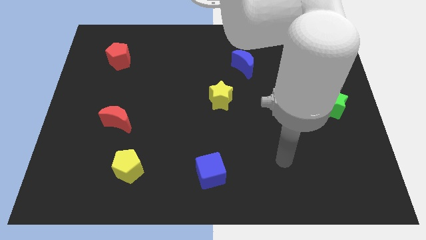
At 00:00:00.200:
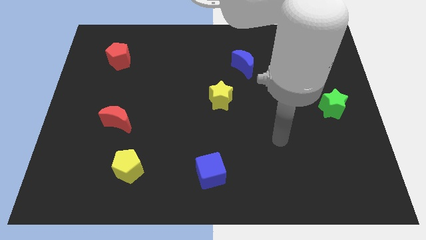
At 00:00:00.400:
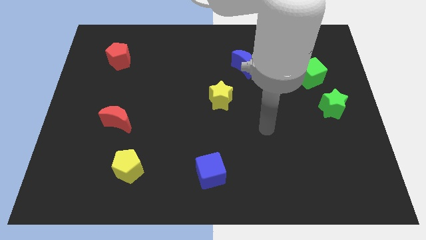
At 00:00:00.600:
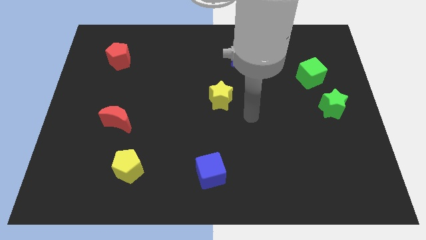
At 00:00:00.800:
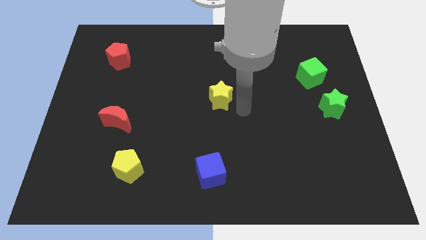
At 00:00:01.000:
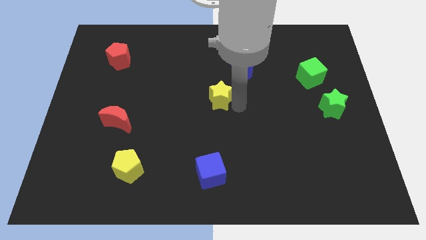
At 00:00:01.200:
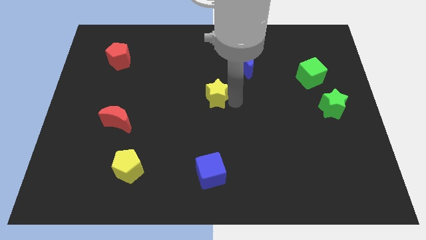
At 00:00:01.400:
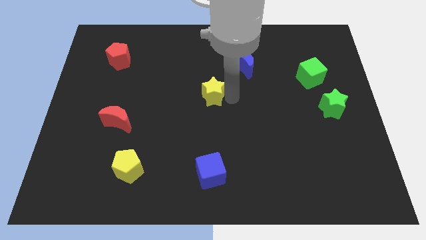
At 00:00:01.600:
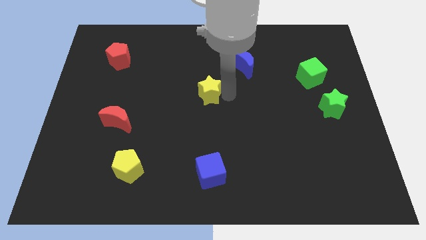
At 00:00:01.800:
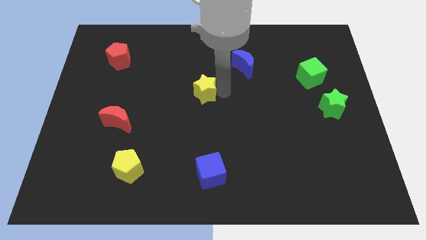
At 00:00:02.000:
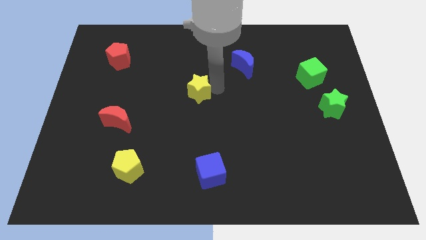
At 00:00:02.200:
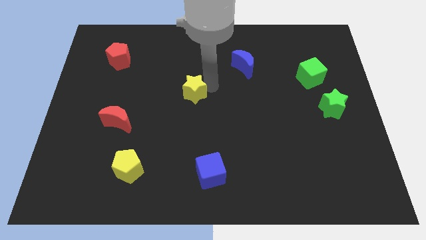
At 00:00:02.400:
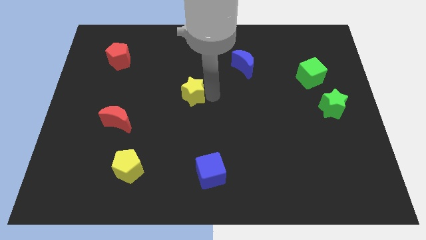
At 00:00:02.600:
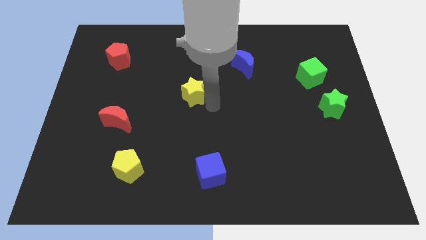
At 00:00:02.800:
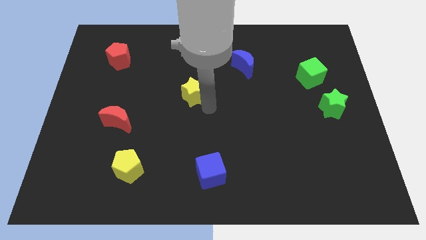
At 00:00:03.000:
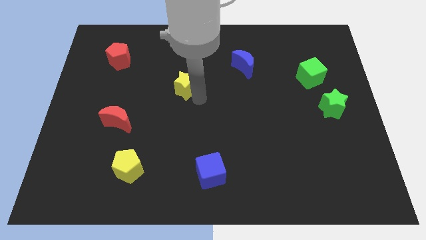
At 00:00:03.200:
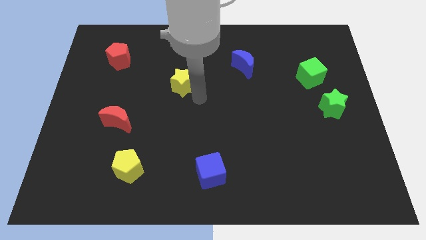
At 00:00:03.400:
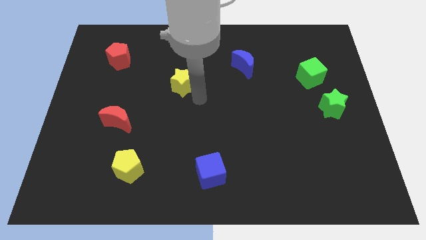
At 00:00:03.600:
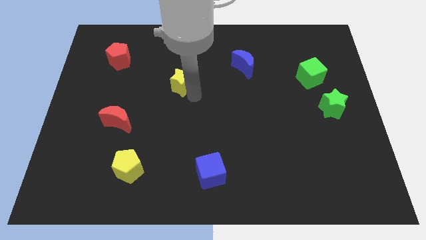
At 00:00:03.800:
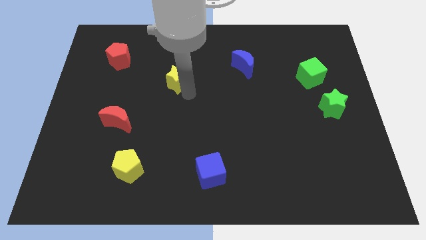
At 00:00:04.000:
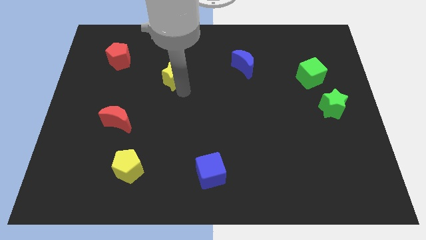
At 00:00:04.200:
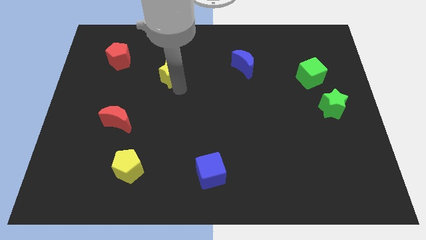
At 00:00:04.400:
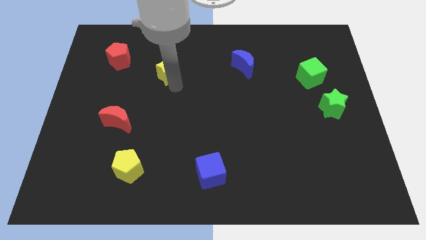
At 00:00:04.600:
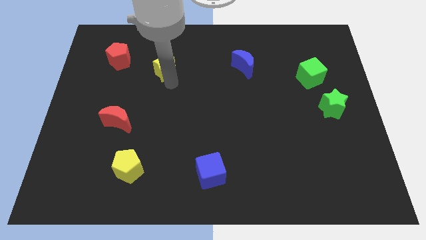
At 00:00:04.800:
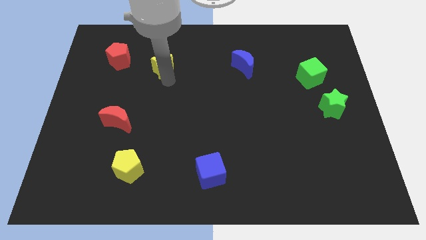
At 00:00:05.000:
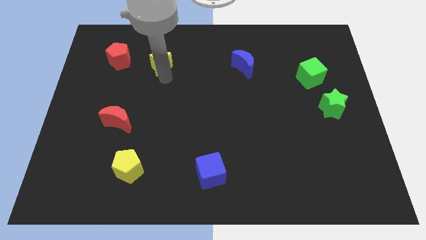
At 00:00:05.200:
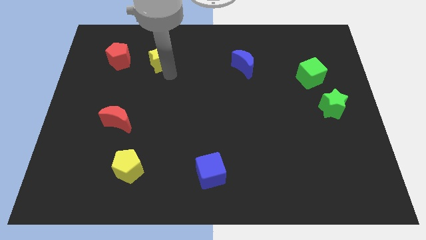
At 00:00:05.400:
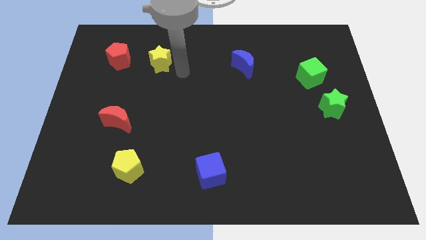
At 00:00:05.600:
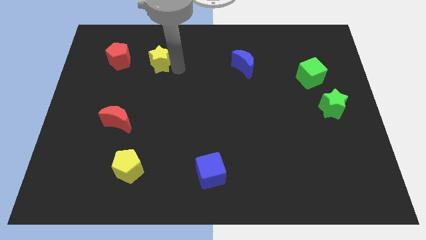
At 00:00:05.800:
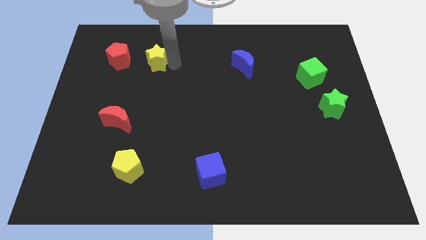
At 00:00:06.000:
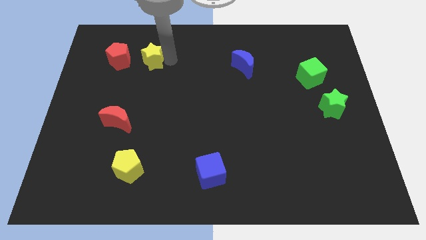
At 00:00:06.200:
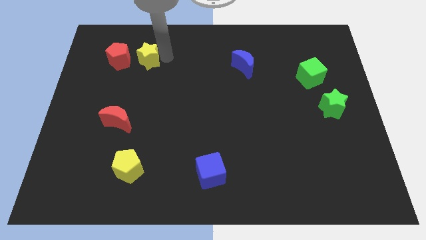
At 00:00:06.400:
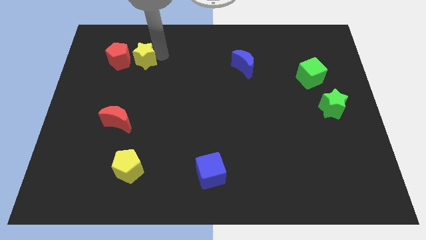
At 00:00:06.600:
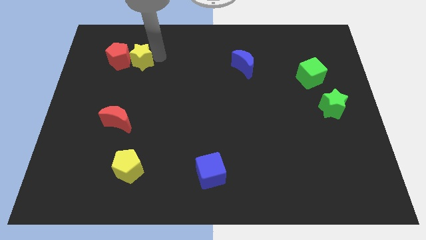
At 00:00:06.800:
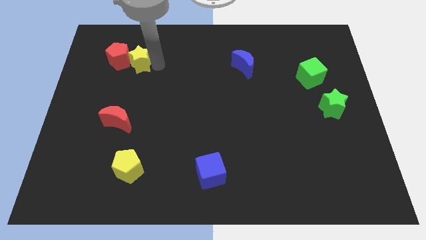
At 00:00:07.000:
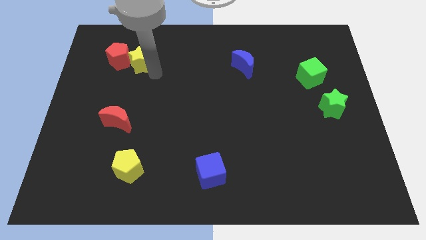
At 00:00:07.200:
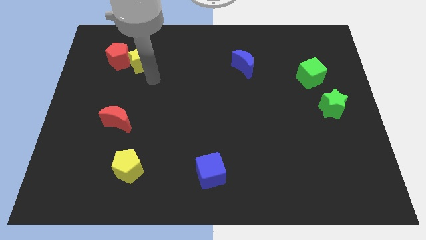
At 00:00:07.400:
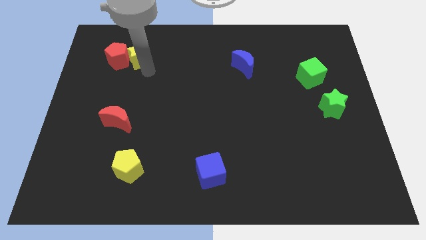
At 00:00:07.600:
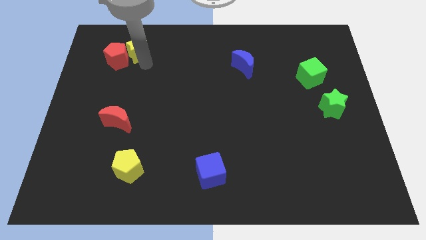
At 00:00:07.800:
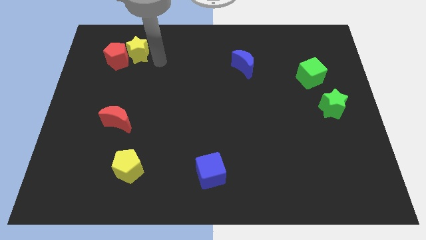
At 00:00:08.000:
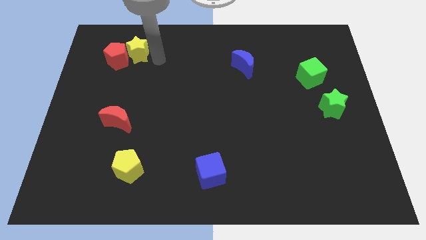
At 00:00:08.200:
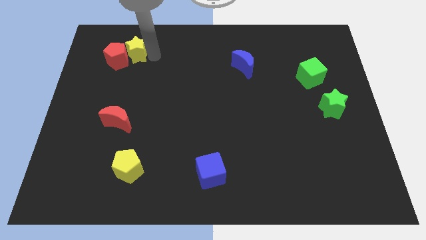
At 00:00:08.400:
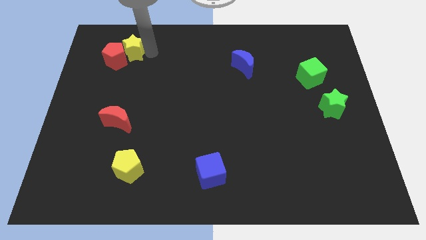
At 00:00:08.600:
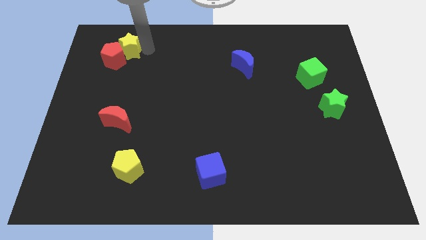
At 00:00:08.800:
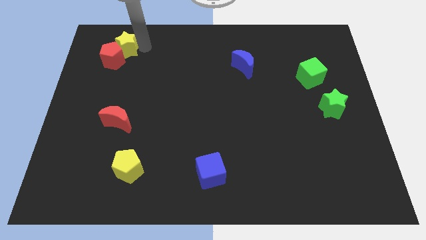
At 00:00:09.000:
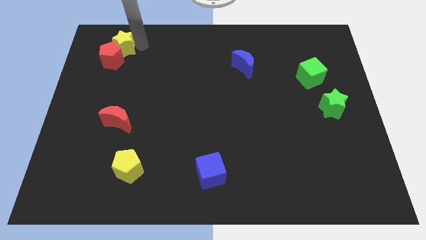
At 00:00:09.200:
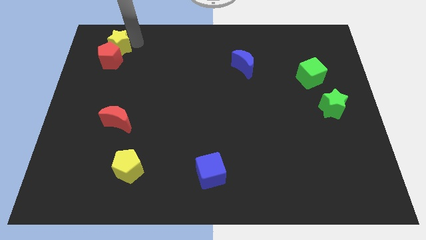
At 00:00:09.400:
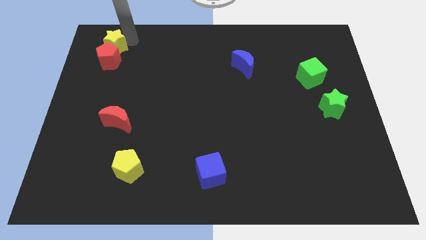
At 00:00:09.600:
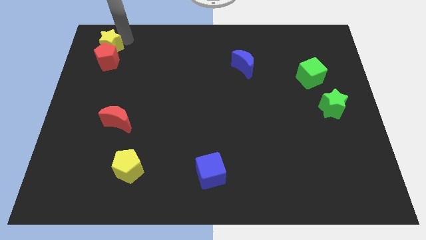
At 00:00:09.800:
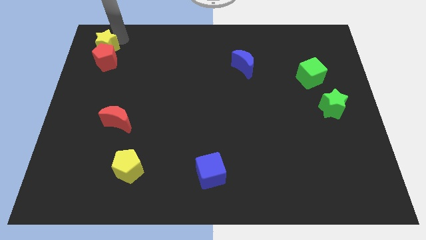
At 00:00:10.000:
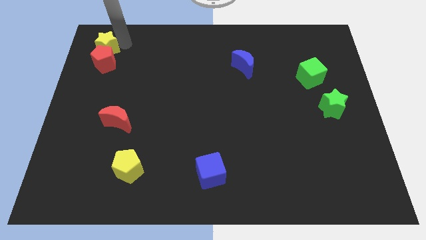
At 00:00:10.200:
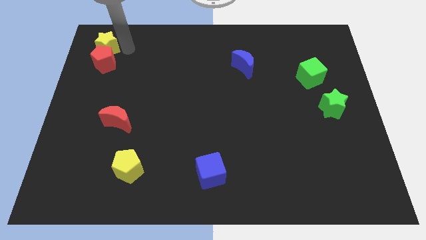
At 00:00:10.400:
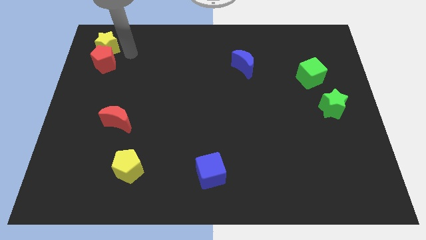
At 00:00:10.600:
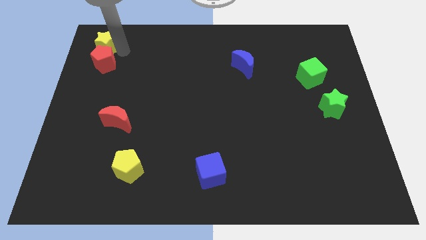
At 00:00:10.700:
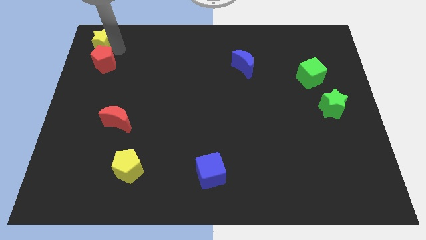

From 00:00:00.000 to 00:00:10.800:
put the yellow star to the top left of the board
